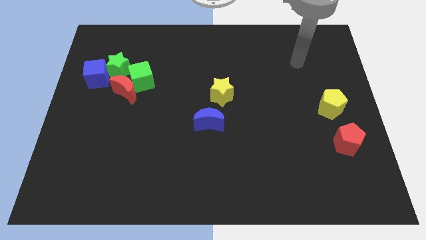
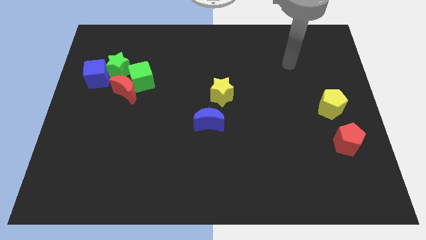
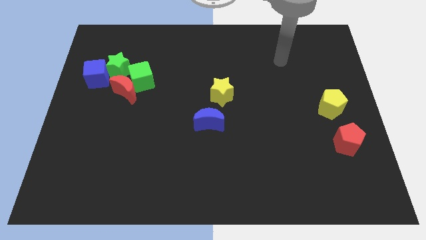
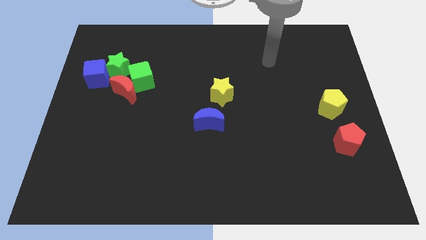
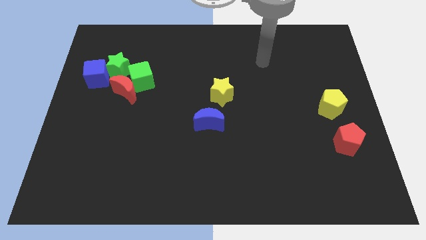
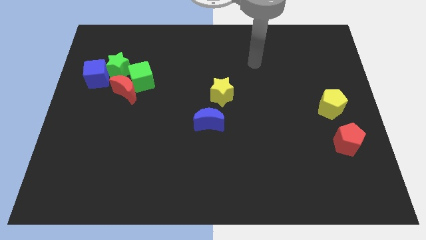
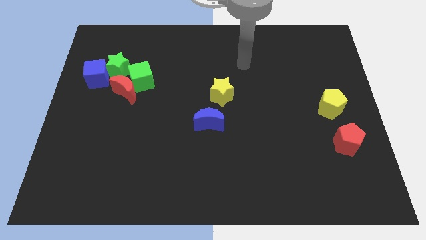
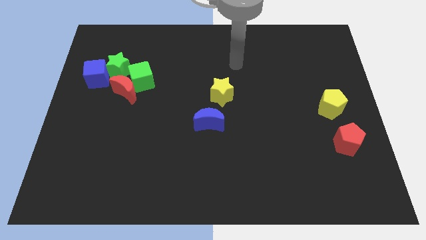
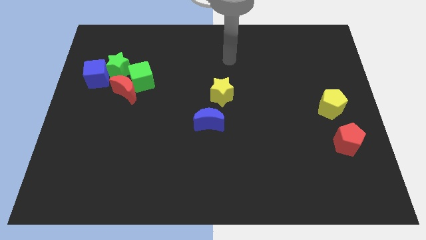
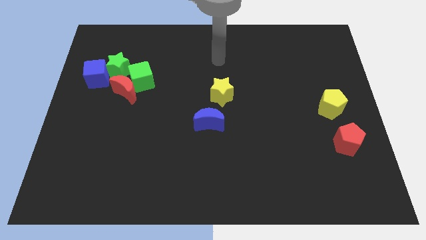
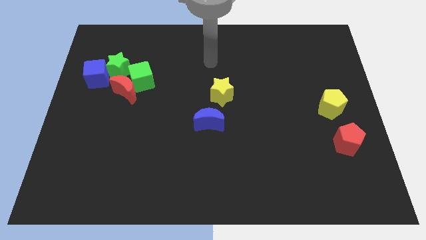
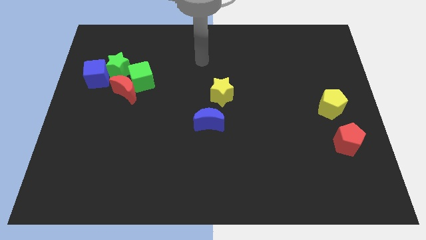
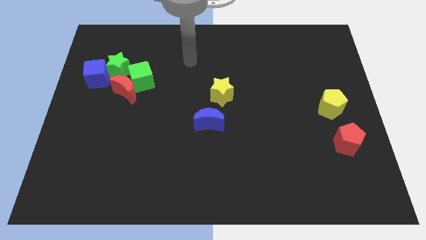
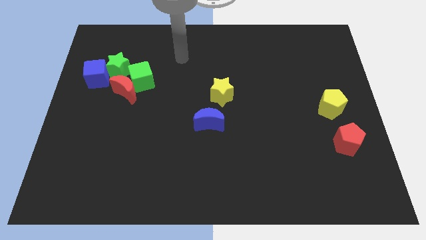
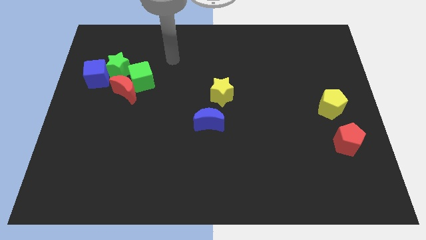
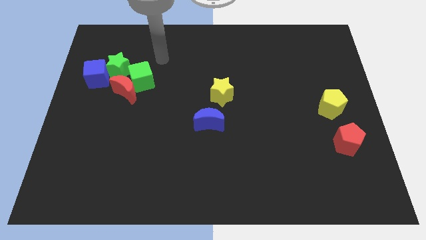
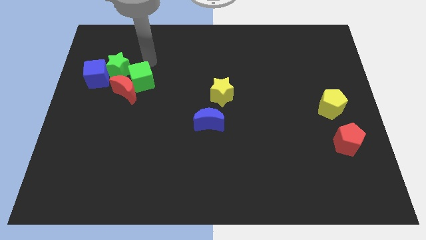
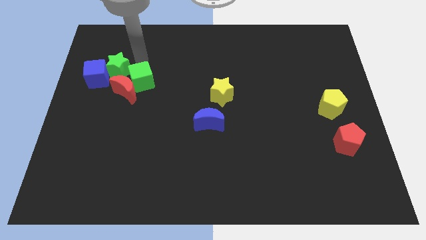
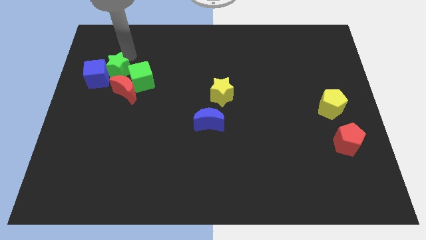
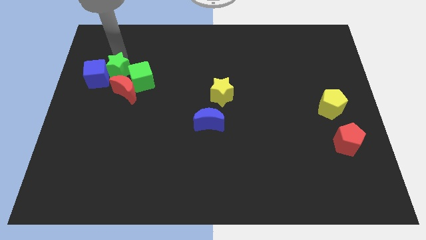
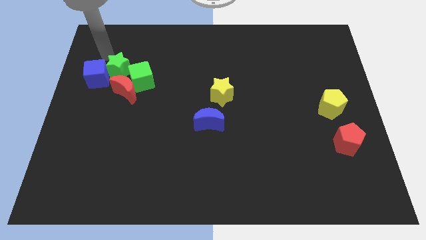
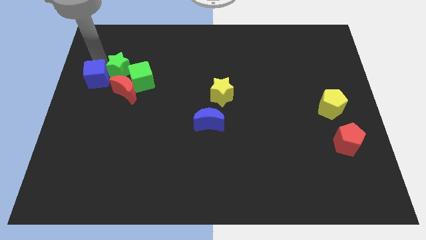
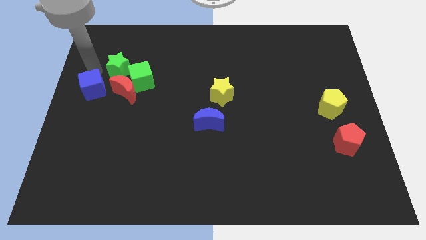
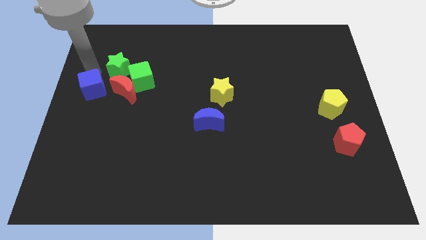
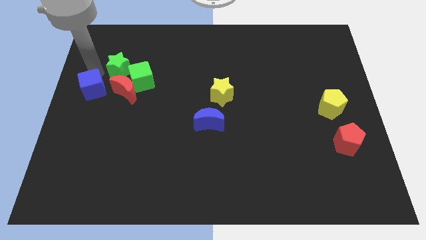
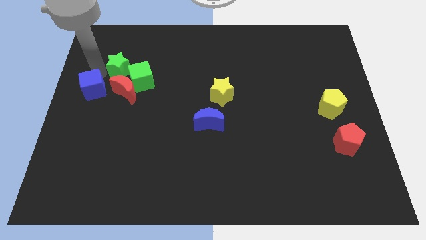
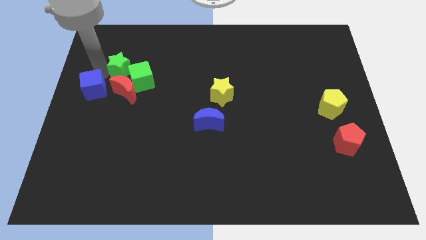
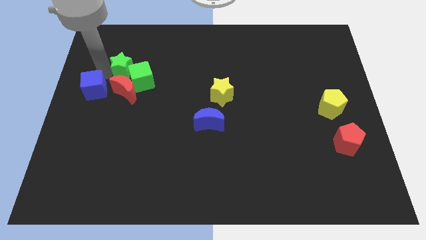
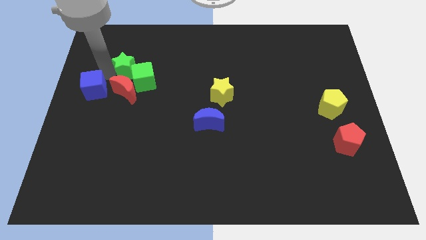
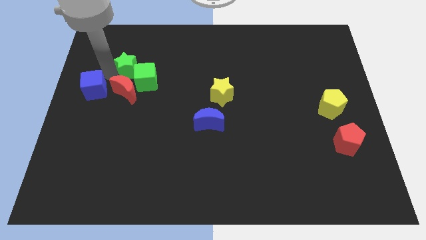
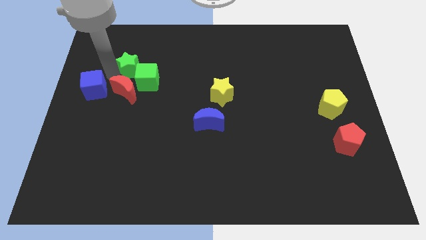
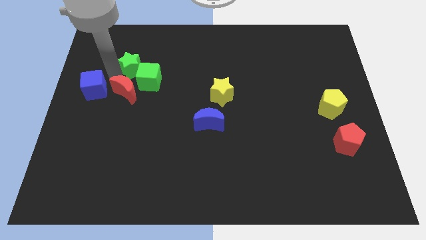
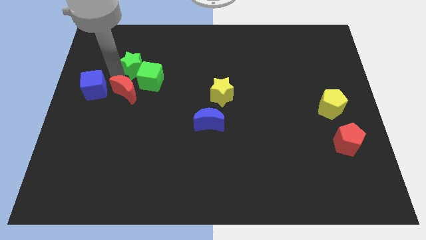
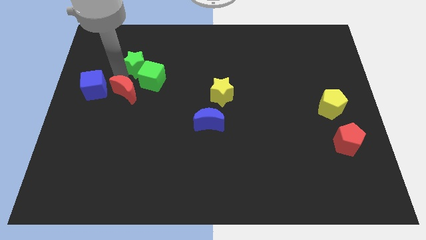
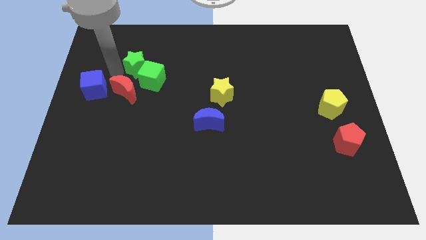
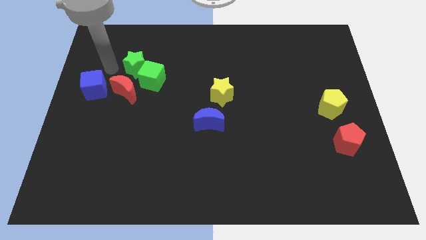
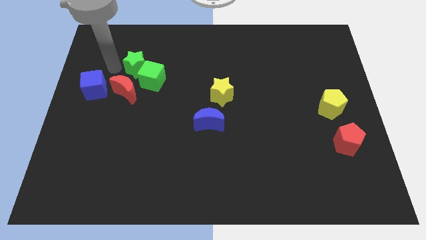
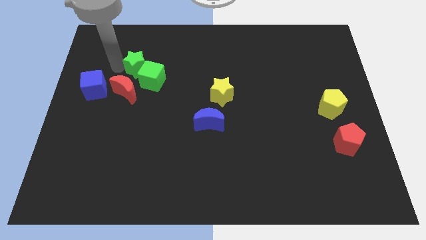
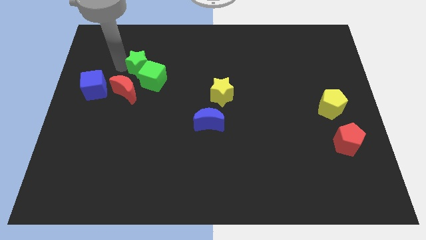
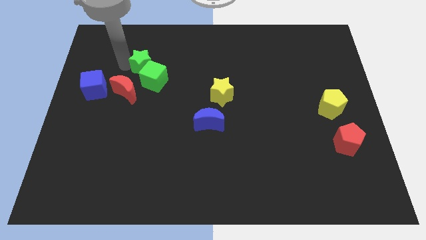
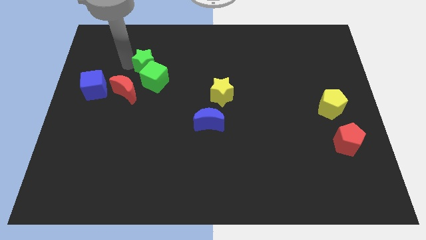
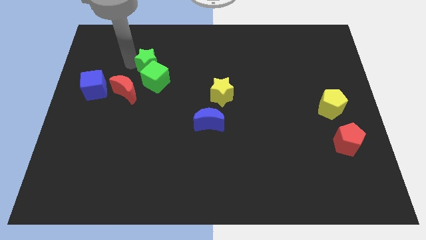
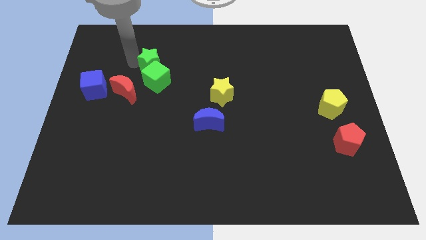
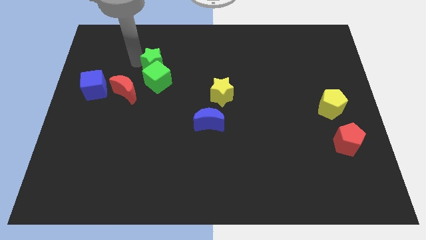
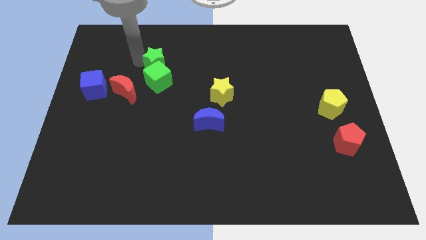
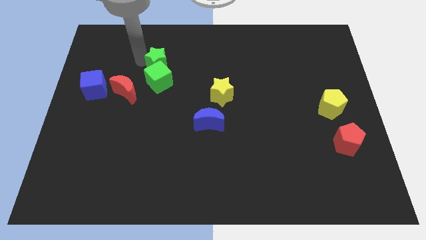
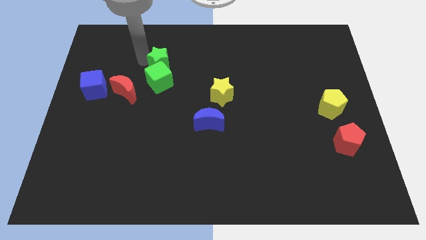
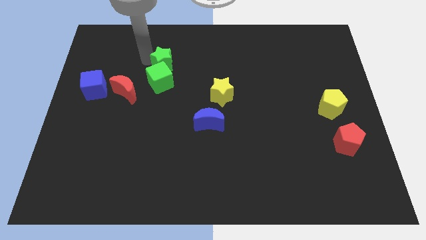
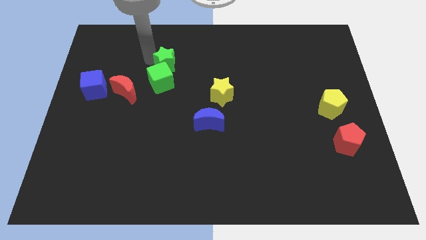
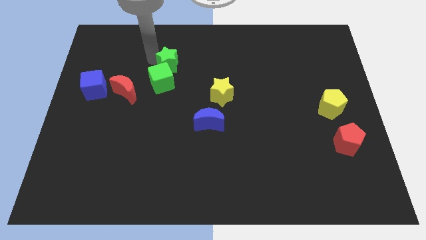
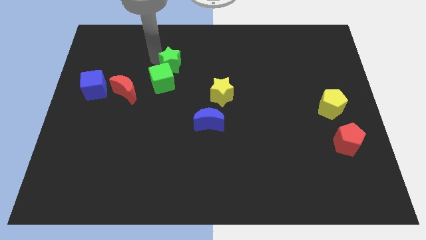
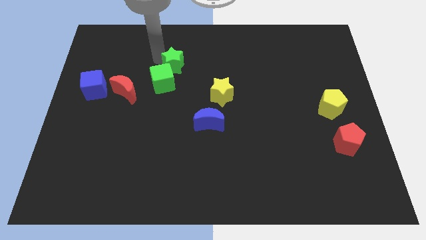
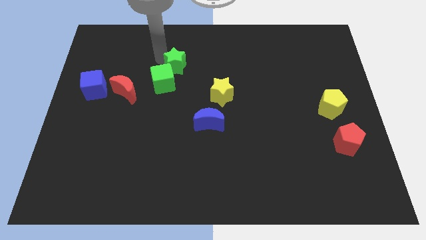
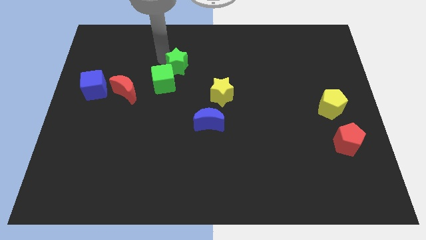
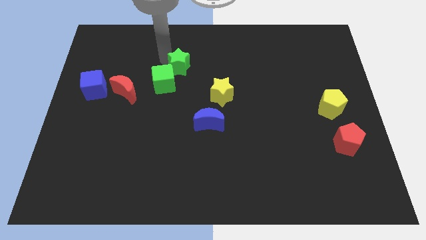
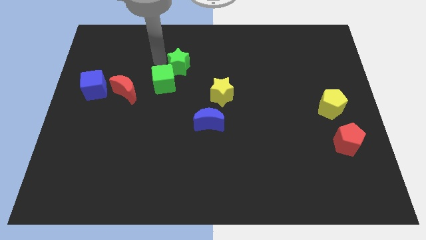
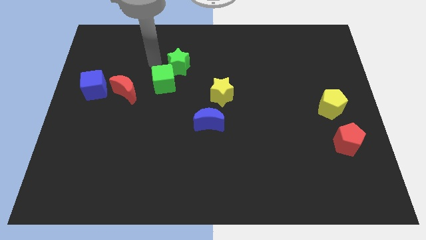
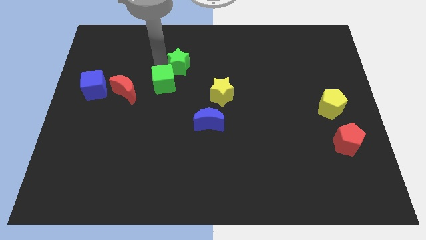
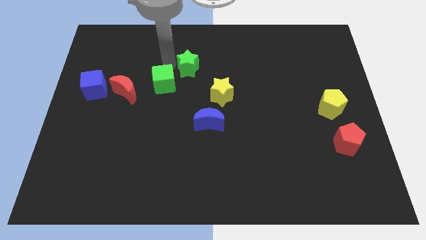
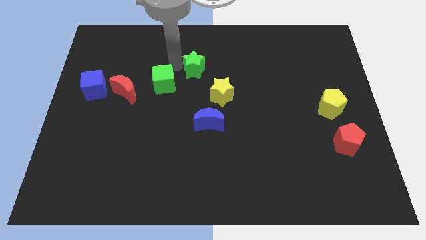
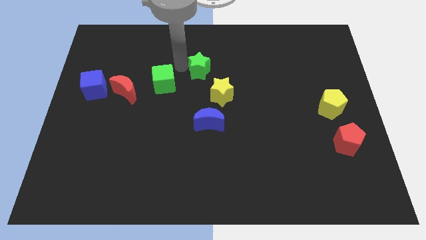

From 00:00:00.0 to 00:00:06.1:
move the green star to the right

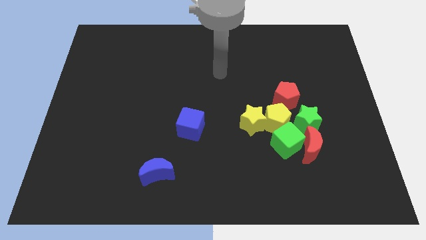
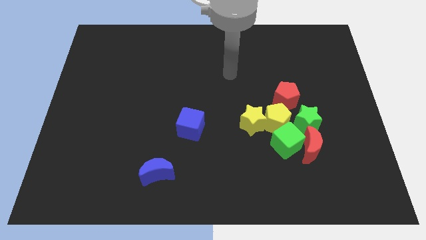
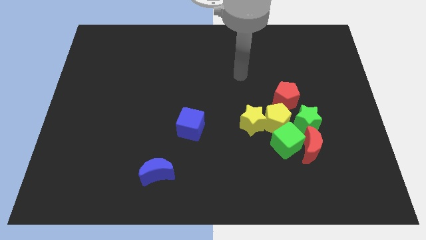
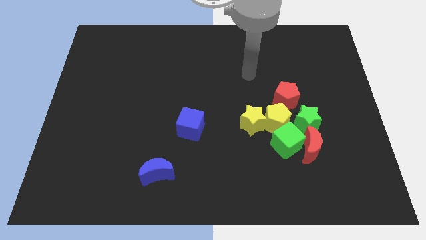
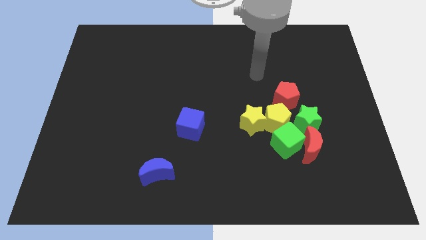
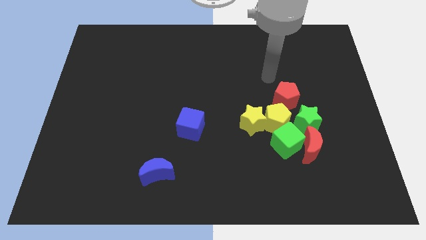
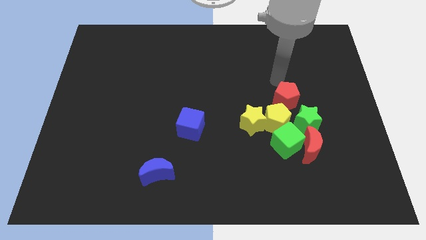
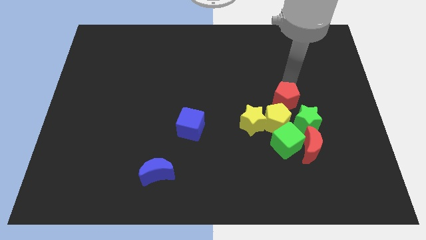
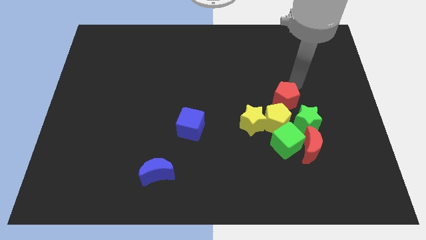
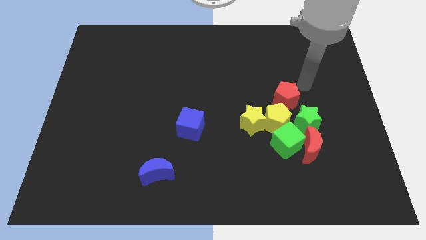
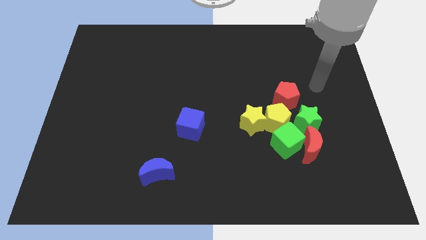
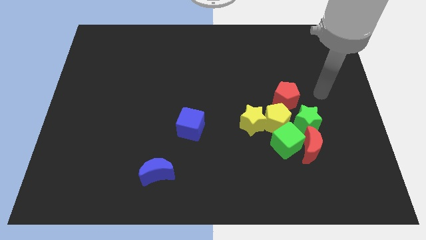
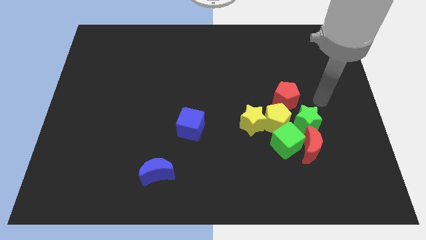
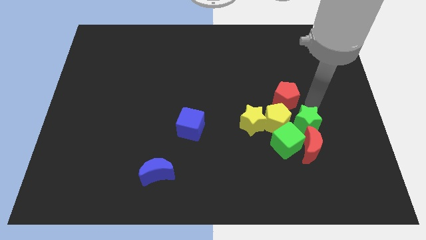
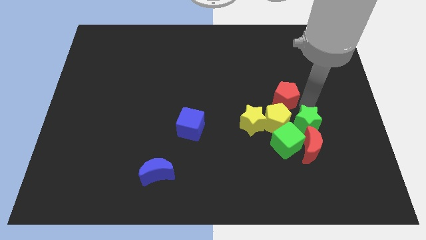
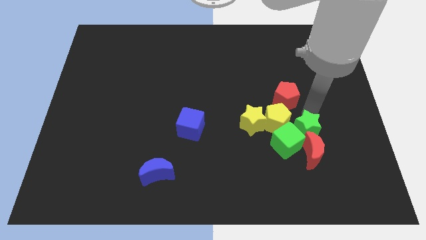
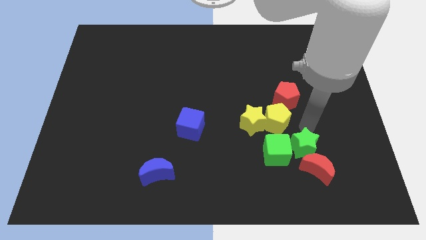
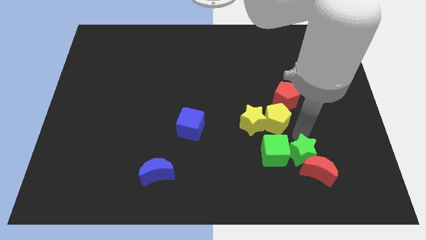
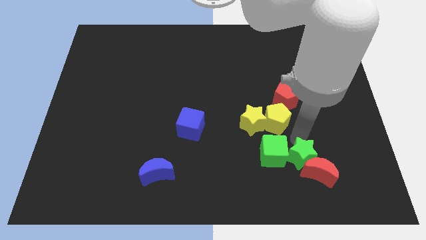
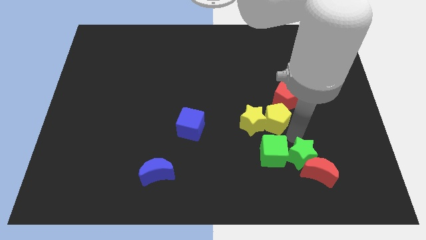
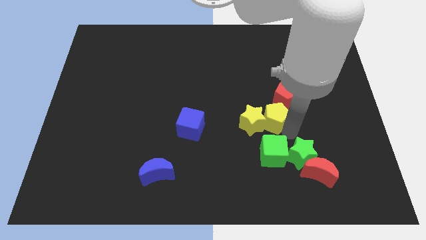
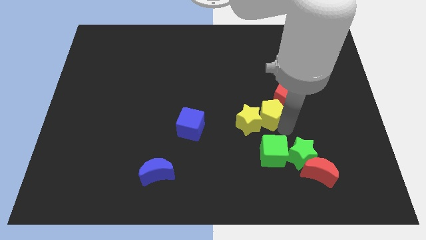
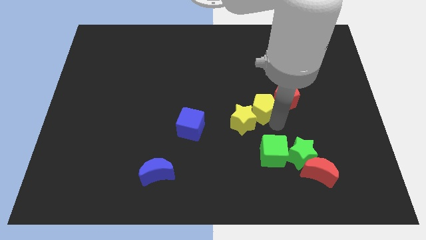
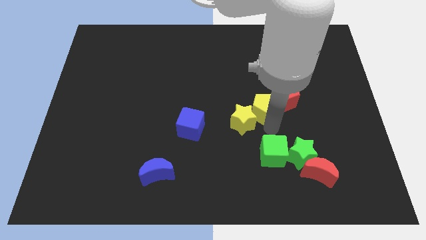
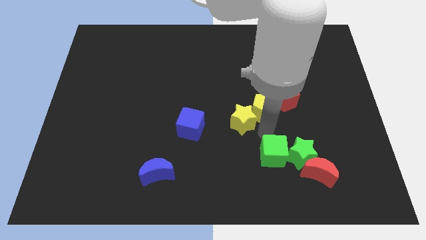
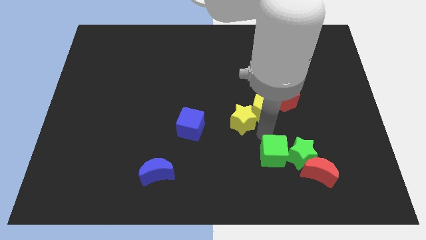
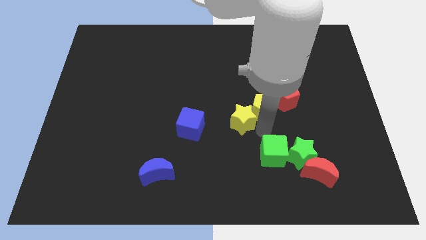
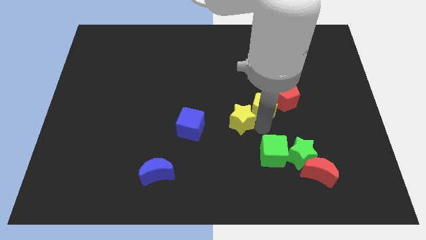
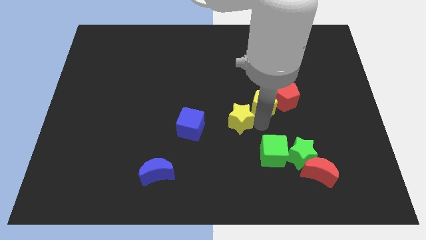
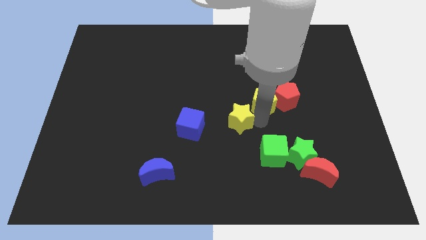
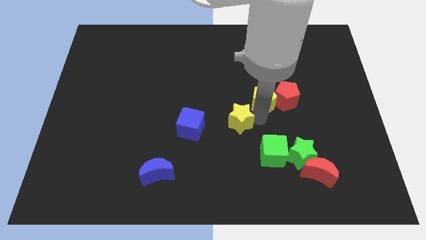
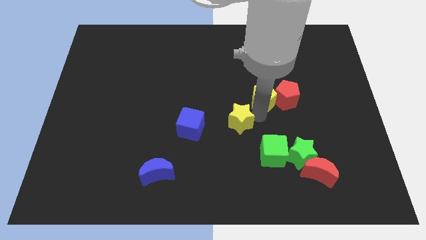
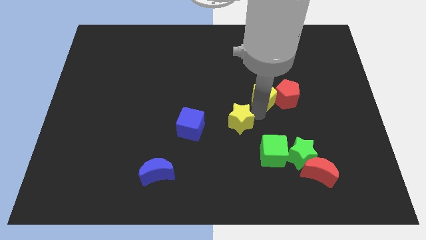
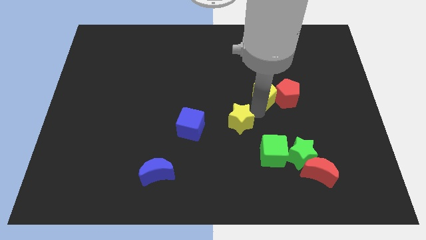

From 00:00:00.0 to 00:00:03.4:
slide the yellow pentagon a little bit up
